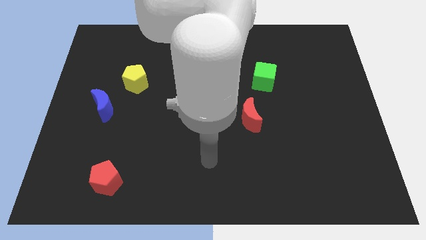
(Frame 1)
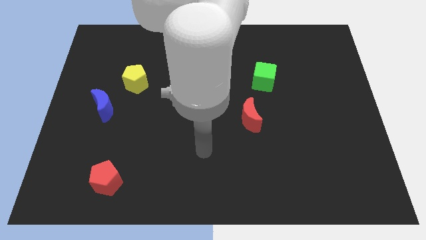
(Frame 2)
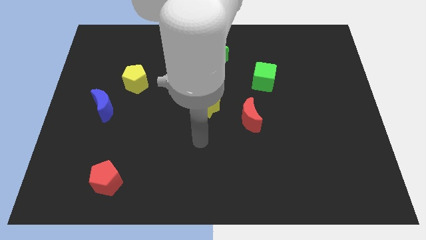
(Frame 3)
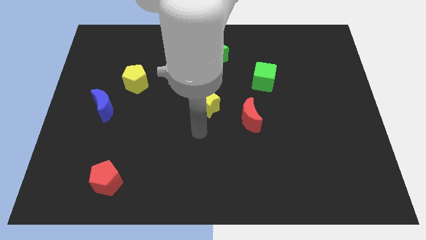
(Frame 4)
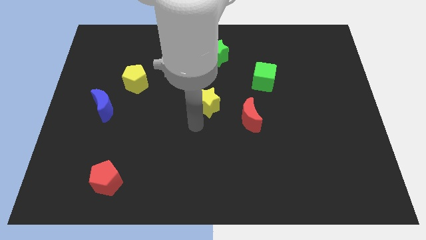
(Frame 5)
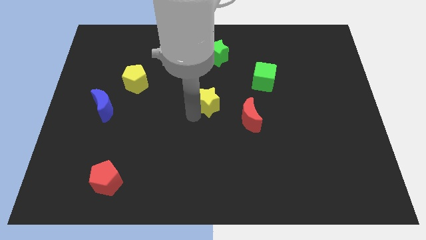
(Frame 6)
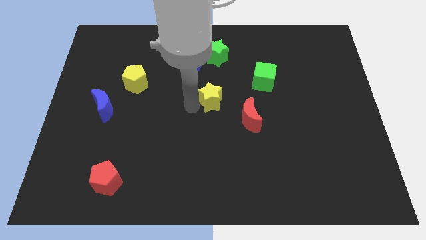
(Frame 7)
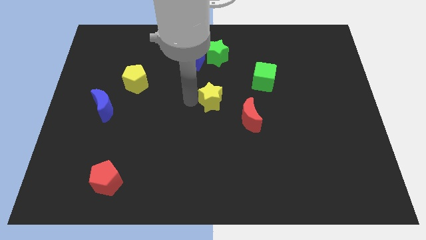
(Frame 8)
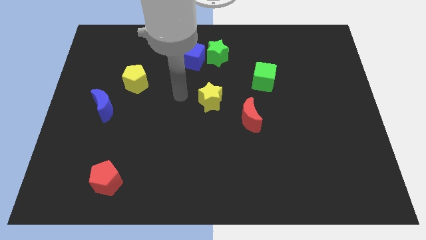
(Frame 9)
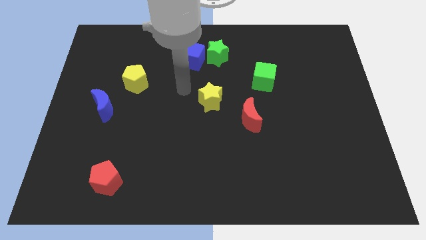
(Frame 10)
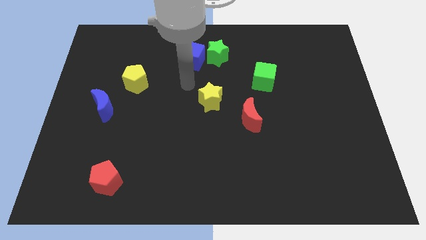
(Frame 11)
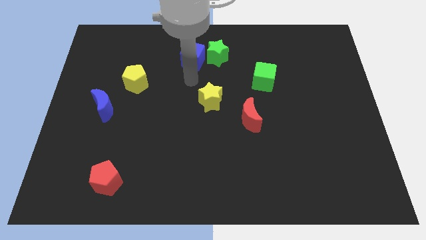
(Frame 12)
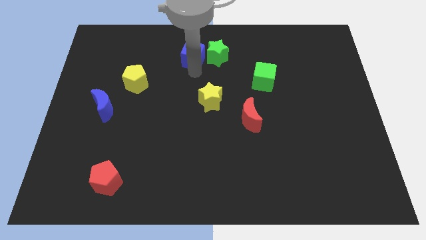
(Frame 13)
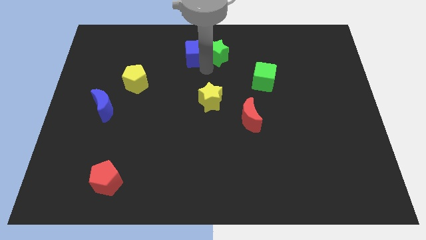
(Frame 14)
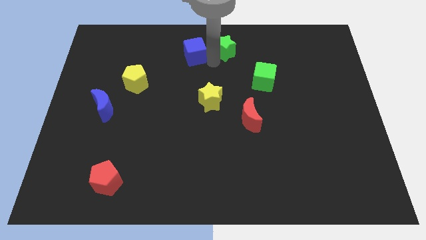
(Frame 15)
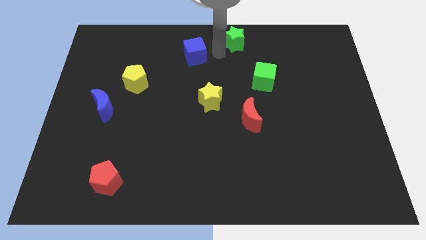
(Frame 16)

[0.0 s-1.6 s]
separate the blue cube from the green star

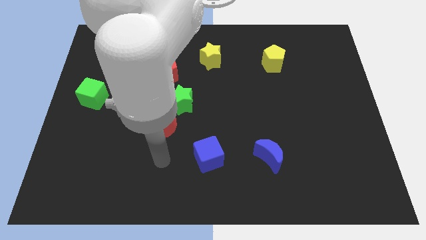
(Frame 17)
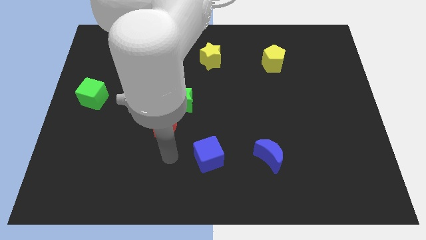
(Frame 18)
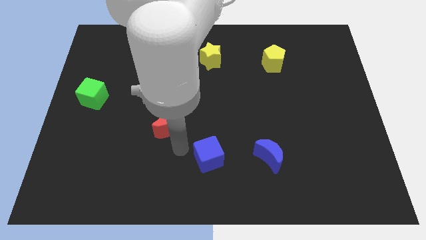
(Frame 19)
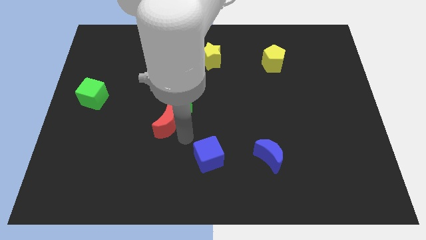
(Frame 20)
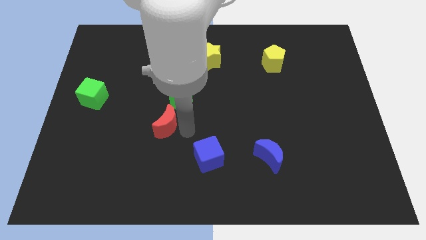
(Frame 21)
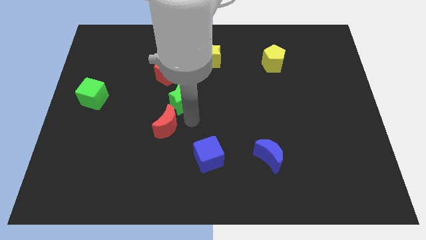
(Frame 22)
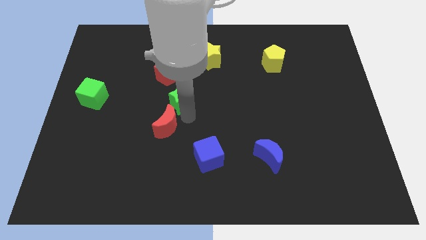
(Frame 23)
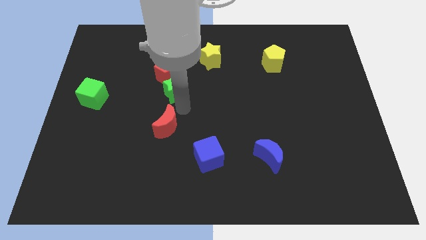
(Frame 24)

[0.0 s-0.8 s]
separate the red moon from the green star

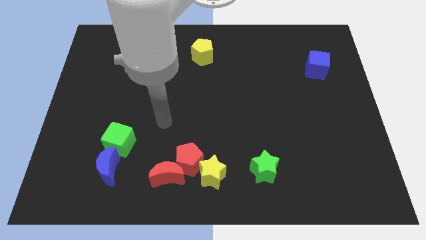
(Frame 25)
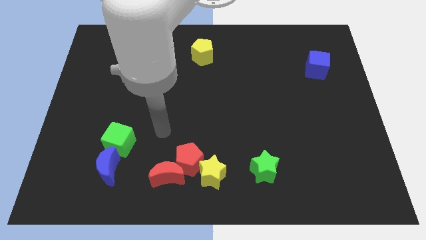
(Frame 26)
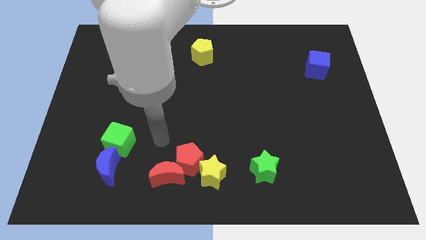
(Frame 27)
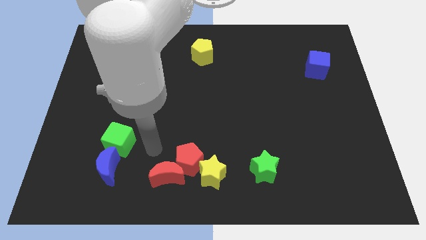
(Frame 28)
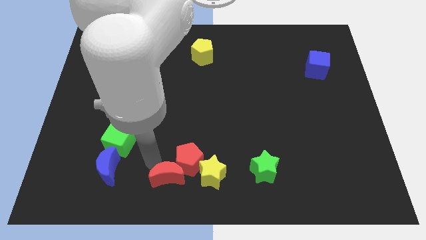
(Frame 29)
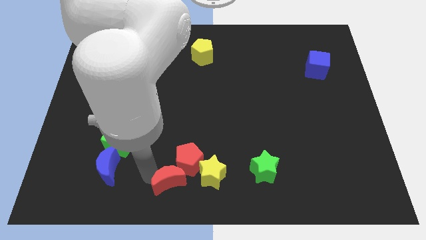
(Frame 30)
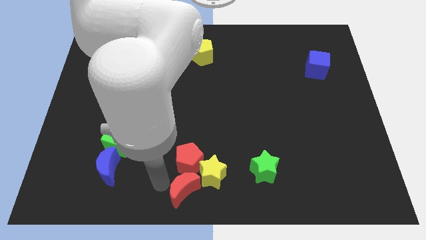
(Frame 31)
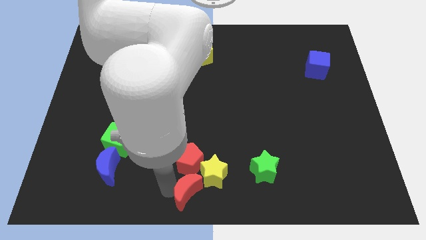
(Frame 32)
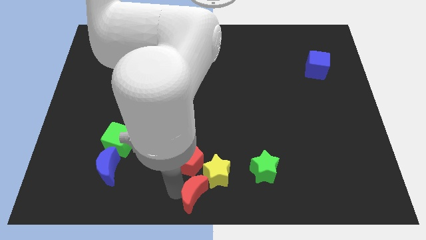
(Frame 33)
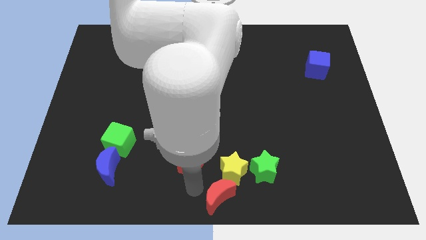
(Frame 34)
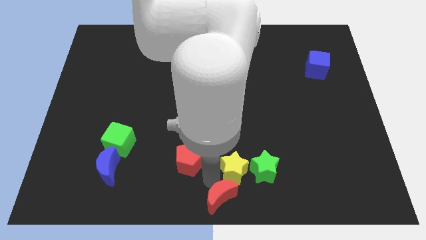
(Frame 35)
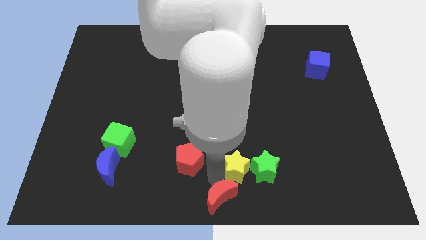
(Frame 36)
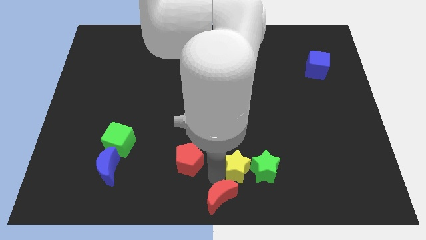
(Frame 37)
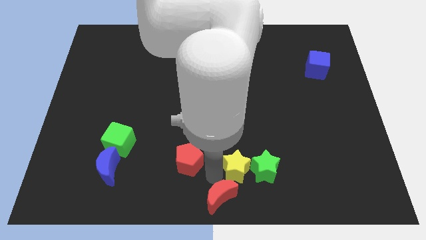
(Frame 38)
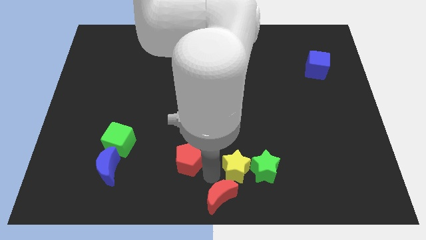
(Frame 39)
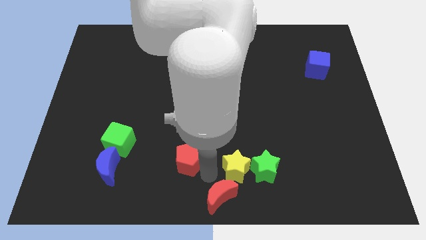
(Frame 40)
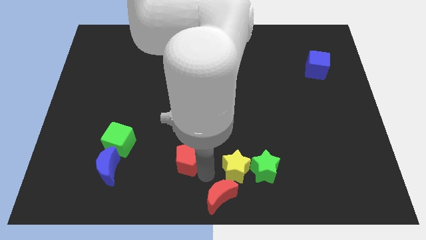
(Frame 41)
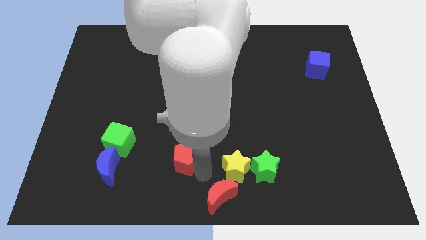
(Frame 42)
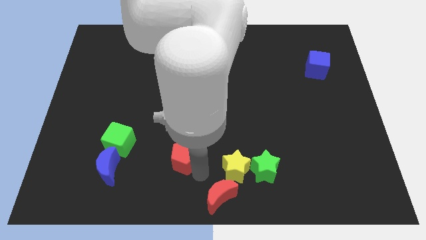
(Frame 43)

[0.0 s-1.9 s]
pull the red pentagon apart from the red moon and yellow star

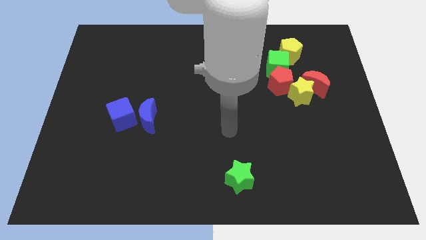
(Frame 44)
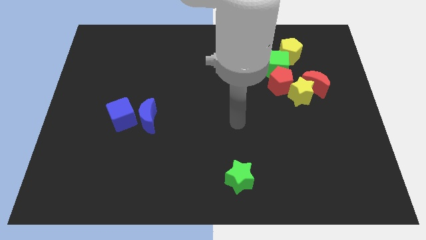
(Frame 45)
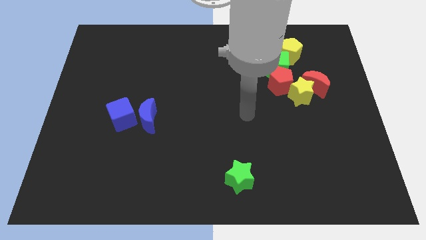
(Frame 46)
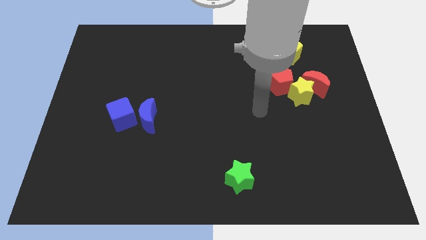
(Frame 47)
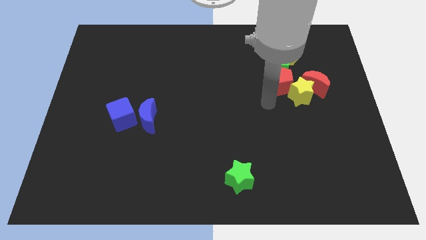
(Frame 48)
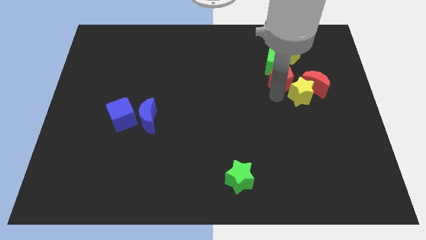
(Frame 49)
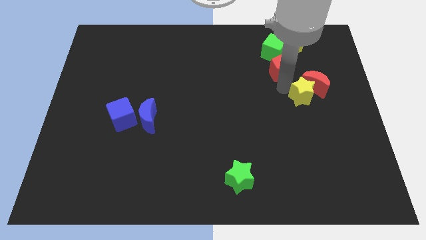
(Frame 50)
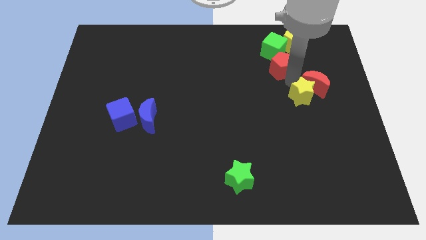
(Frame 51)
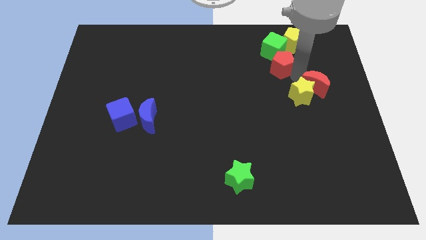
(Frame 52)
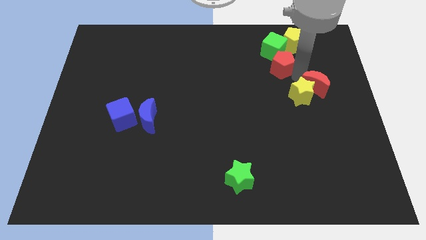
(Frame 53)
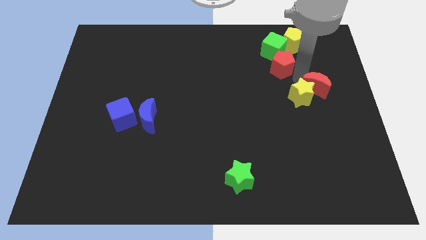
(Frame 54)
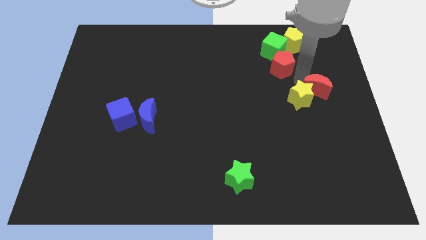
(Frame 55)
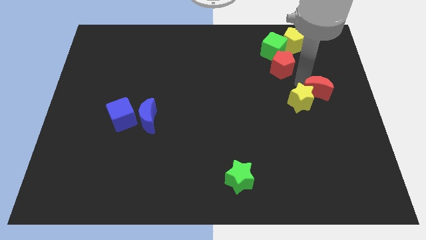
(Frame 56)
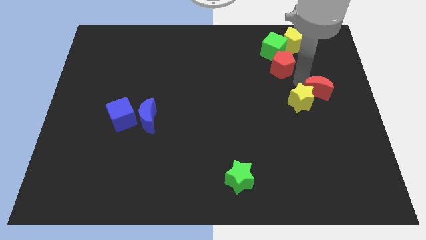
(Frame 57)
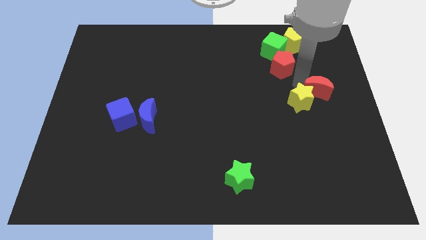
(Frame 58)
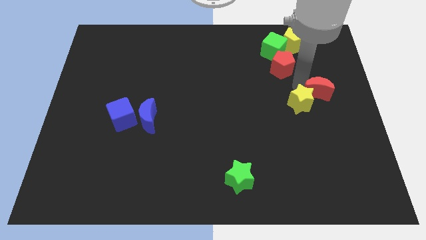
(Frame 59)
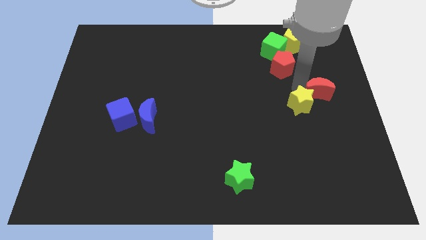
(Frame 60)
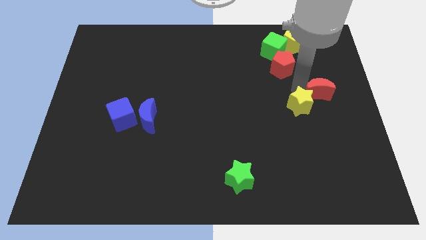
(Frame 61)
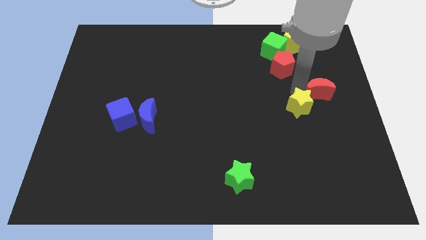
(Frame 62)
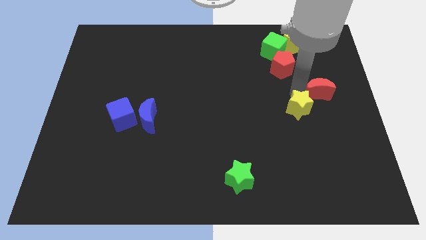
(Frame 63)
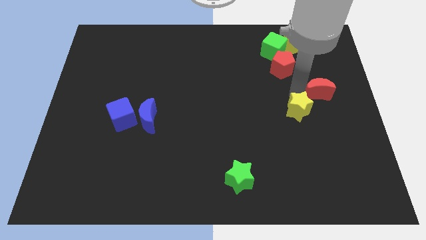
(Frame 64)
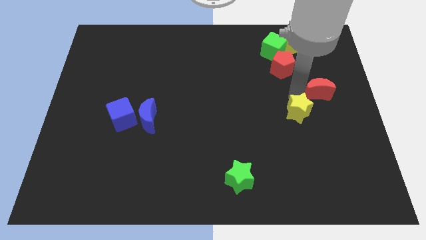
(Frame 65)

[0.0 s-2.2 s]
move the yellow star away from the red moon and red pentagon

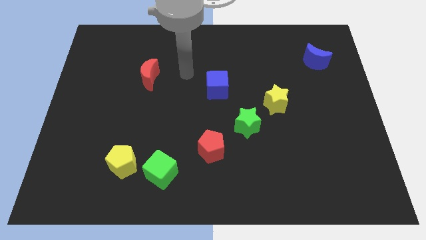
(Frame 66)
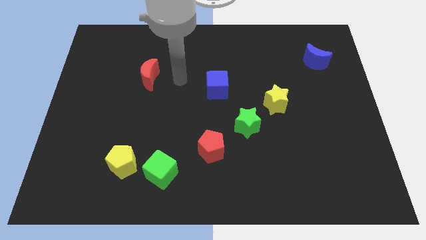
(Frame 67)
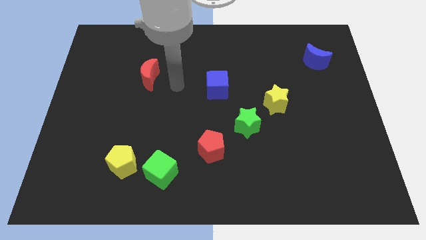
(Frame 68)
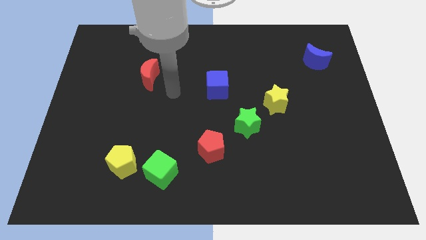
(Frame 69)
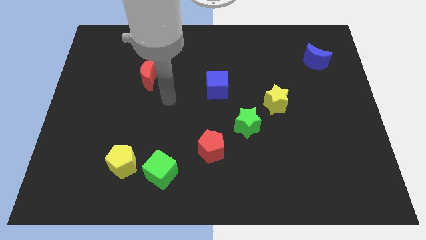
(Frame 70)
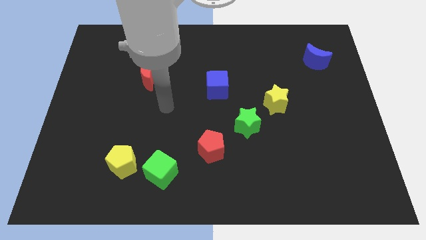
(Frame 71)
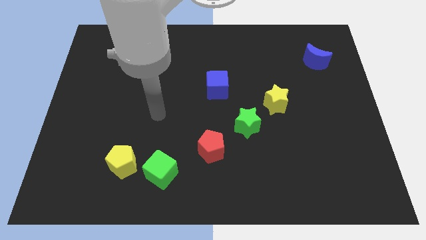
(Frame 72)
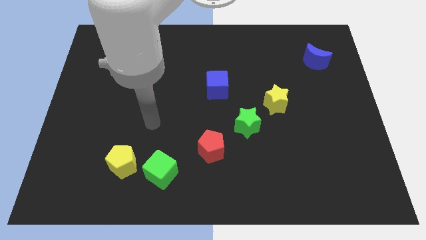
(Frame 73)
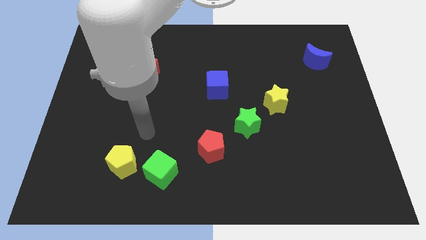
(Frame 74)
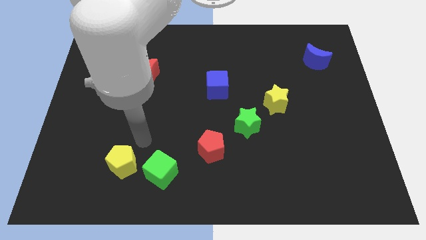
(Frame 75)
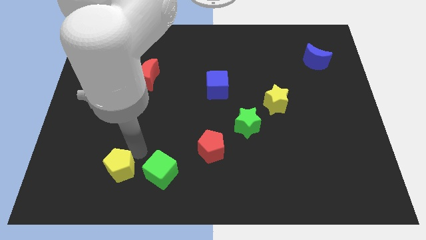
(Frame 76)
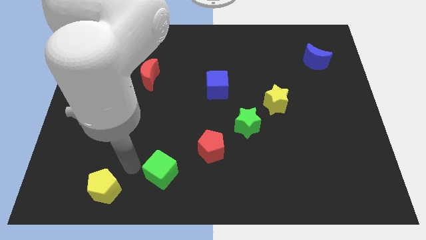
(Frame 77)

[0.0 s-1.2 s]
separate the green cube from the yellow pentagon

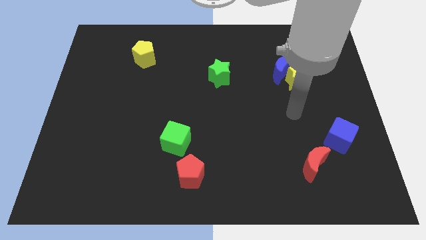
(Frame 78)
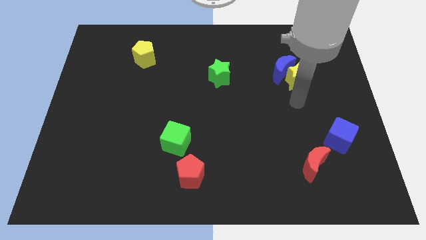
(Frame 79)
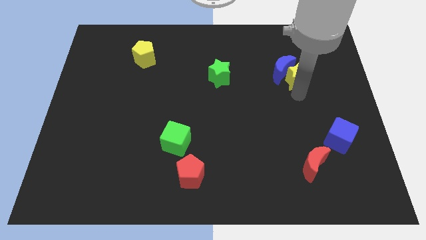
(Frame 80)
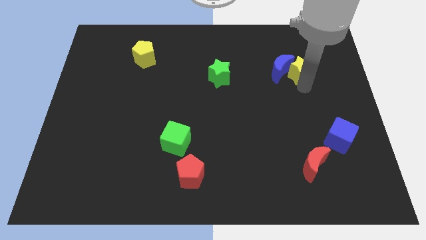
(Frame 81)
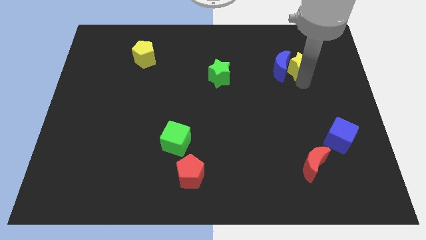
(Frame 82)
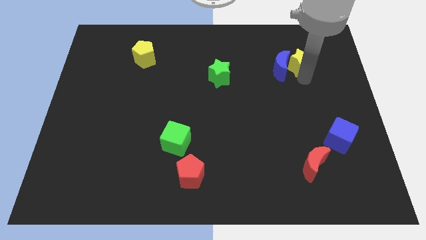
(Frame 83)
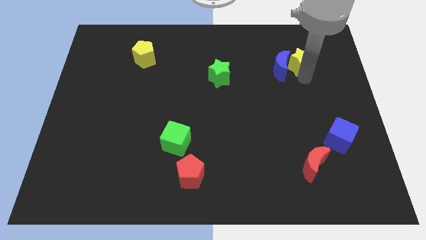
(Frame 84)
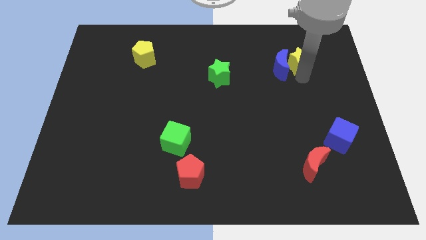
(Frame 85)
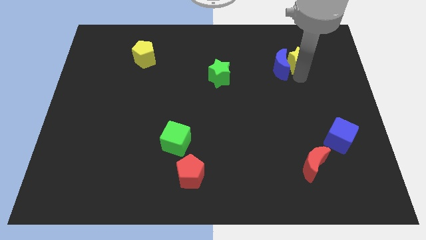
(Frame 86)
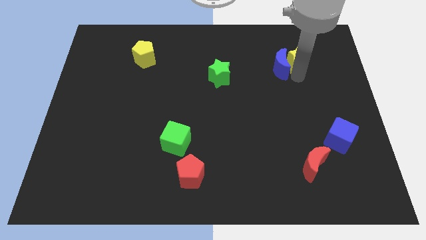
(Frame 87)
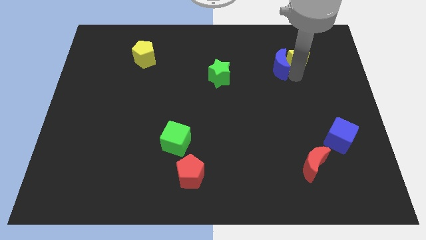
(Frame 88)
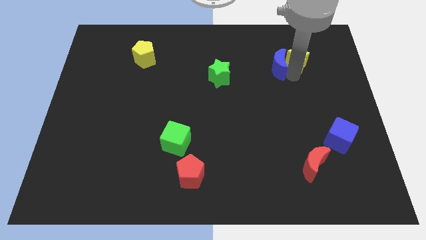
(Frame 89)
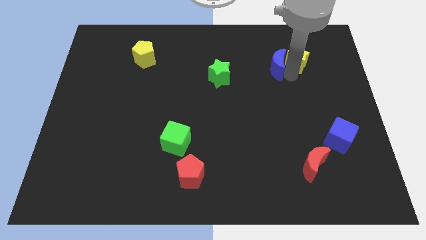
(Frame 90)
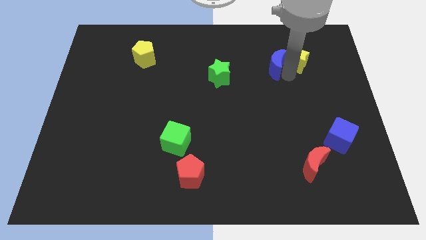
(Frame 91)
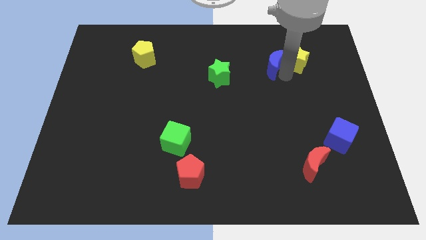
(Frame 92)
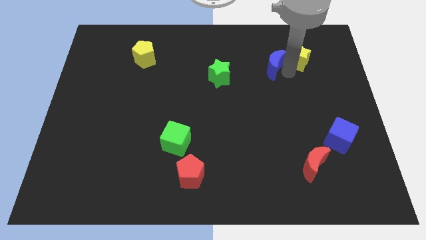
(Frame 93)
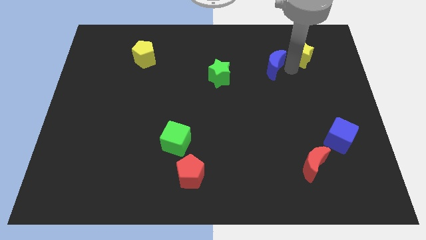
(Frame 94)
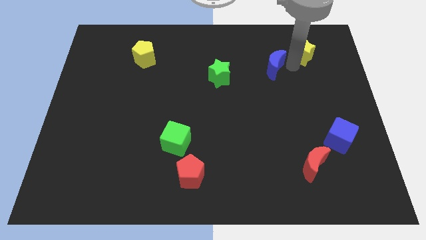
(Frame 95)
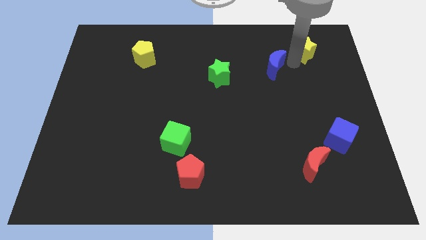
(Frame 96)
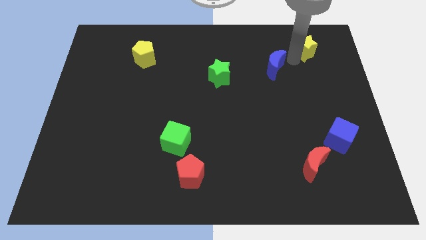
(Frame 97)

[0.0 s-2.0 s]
pull the blue moon apart from the yellow star
